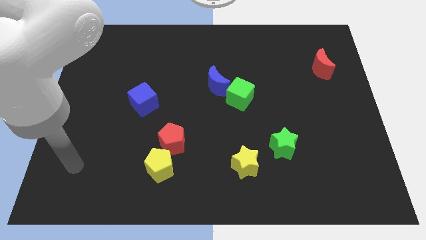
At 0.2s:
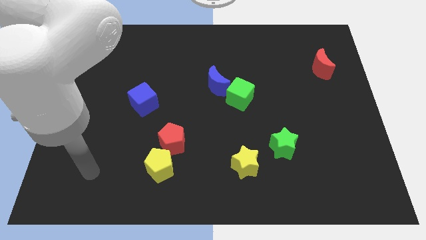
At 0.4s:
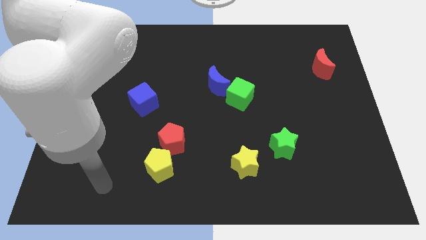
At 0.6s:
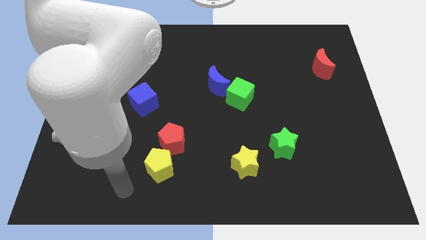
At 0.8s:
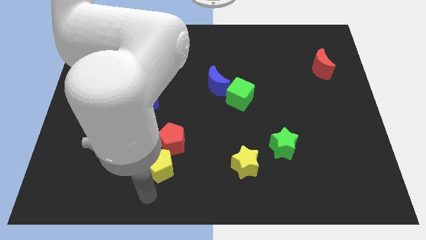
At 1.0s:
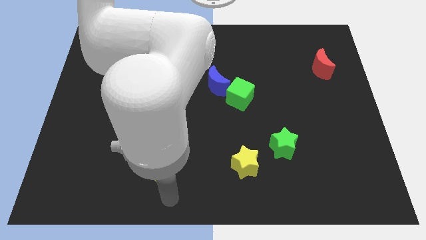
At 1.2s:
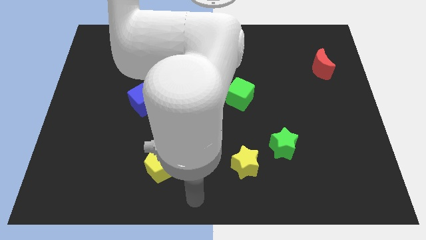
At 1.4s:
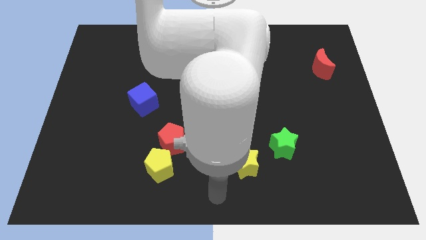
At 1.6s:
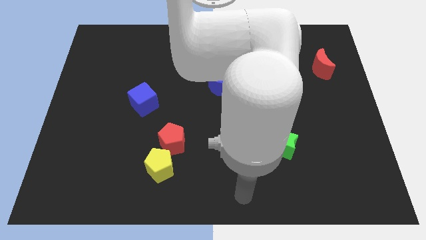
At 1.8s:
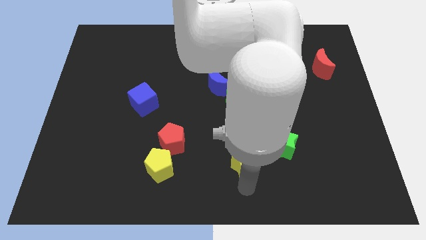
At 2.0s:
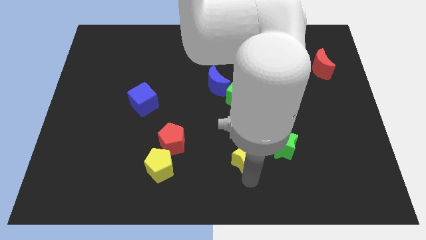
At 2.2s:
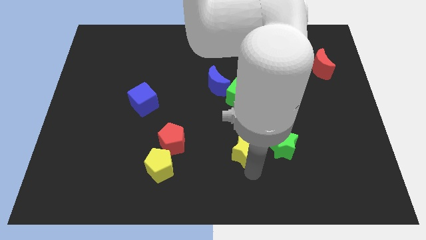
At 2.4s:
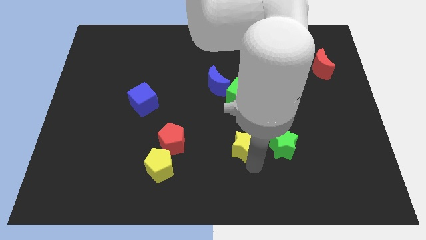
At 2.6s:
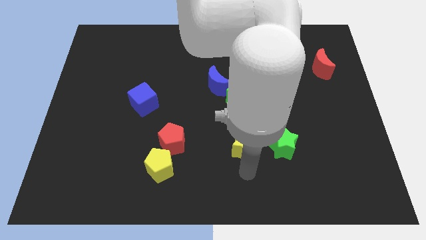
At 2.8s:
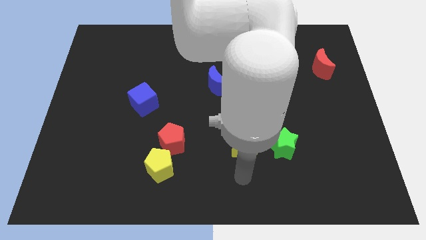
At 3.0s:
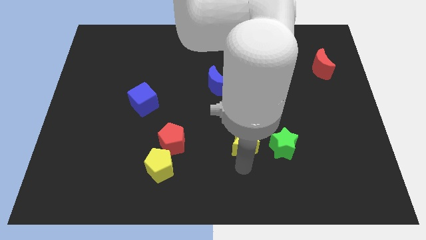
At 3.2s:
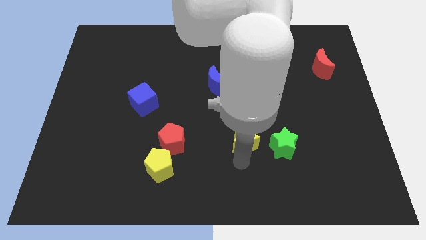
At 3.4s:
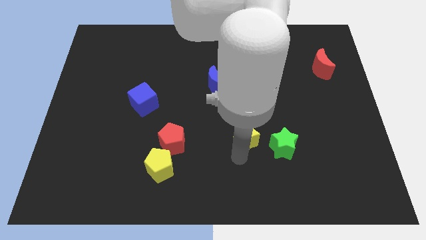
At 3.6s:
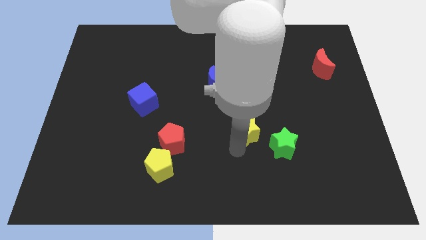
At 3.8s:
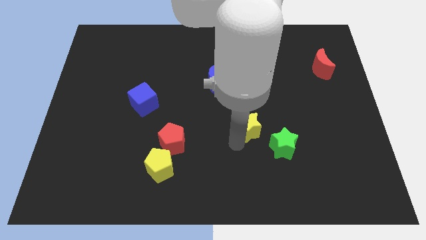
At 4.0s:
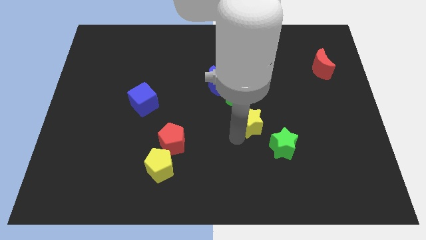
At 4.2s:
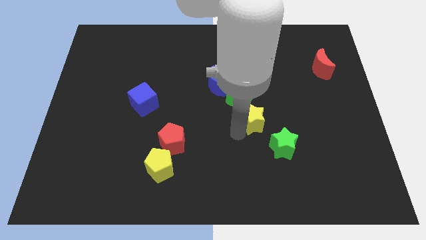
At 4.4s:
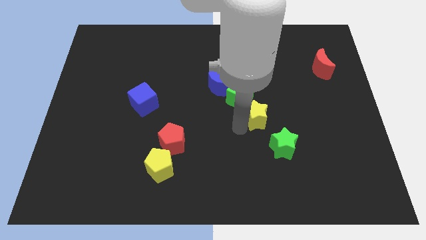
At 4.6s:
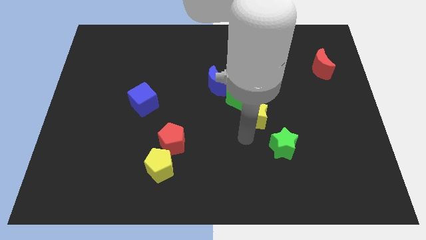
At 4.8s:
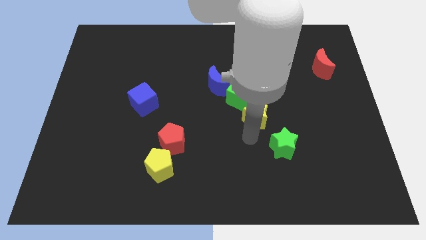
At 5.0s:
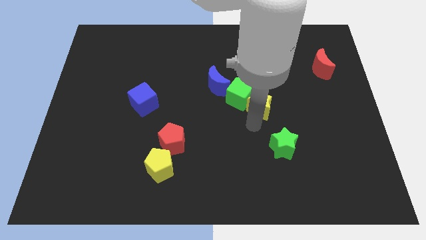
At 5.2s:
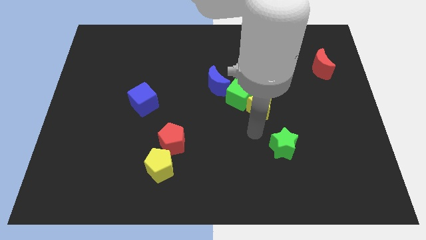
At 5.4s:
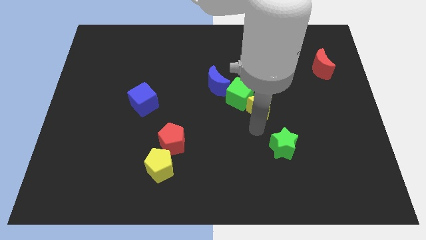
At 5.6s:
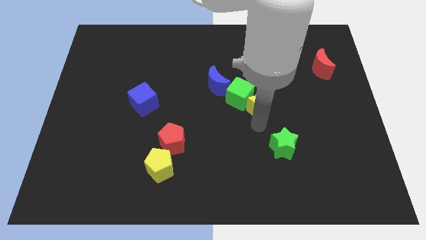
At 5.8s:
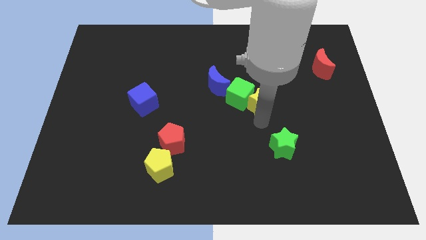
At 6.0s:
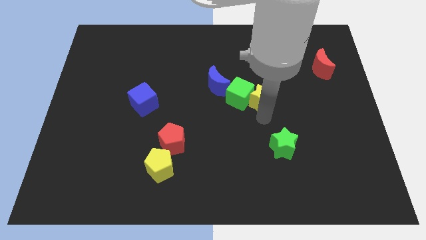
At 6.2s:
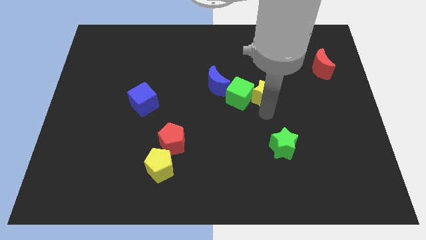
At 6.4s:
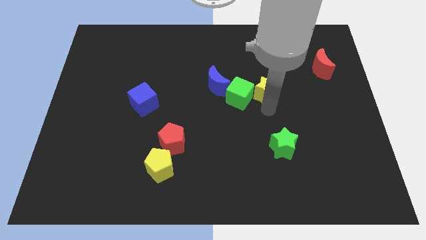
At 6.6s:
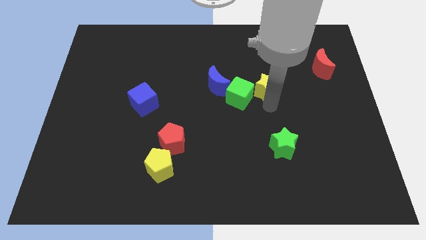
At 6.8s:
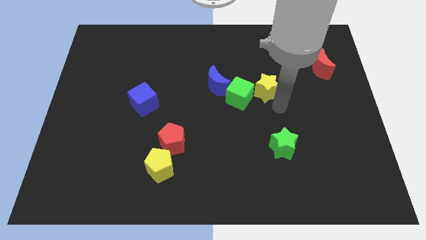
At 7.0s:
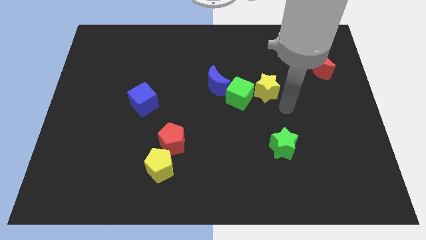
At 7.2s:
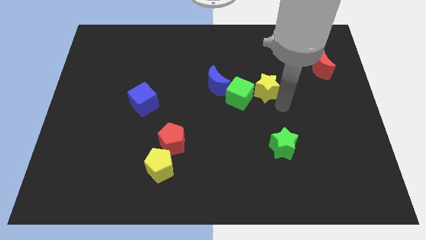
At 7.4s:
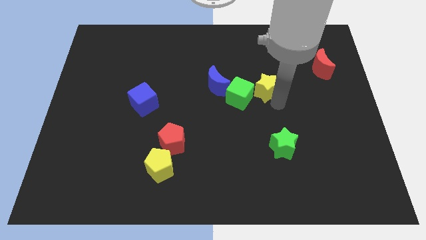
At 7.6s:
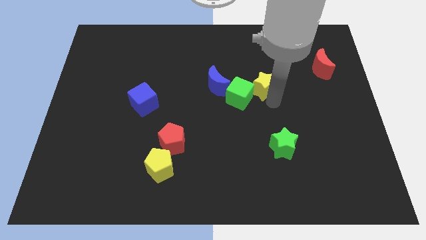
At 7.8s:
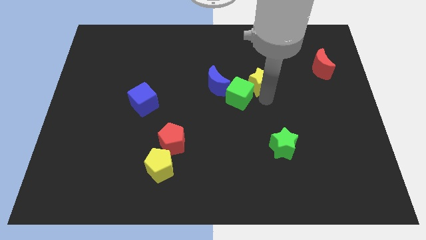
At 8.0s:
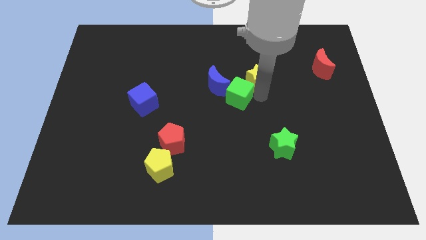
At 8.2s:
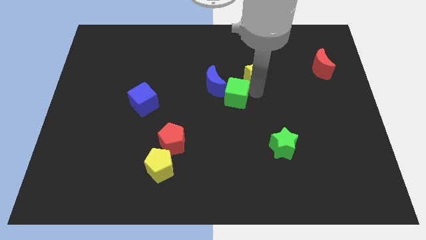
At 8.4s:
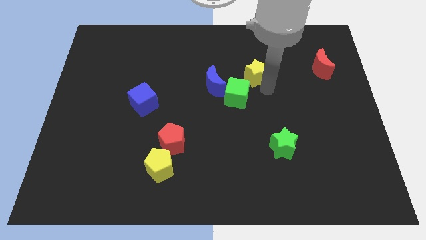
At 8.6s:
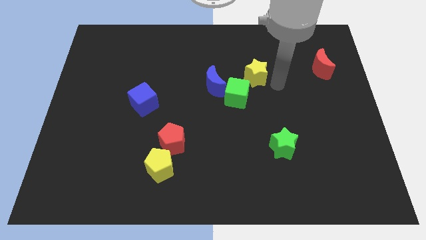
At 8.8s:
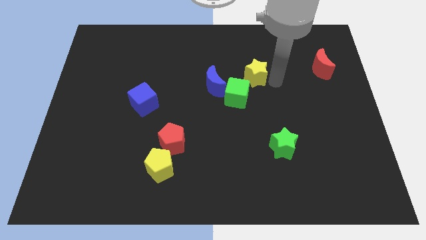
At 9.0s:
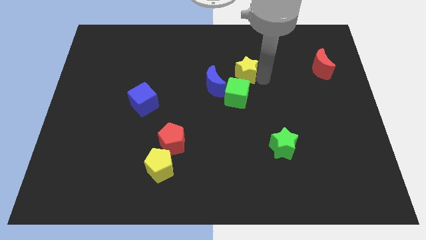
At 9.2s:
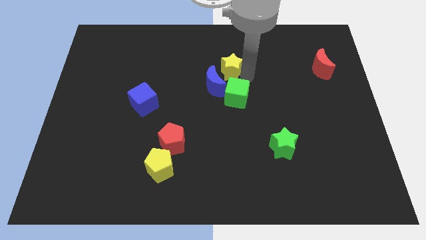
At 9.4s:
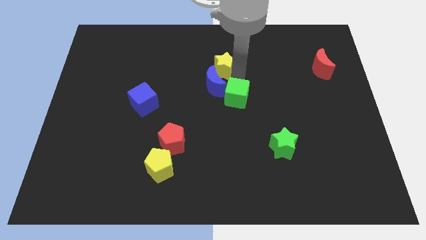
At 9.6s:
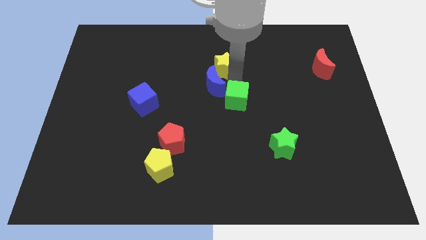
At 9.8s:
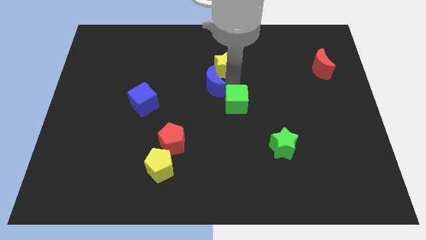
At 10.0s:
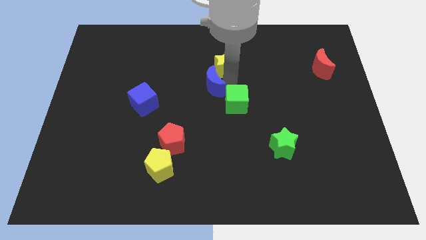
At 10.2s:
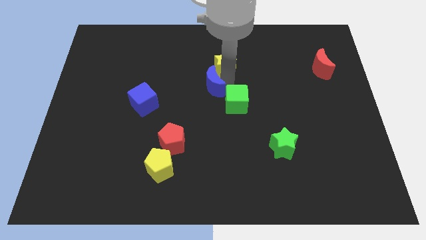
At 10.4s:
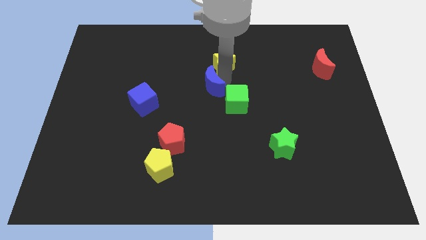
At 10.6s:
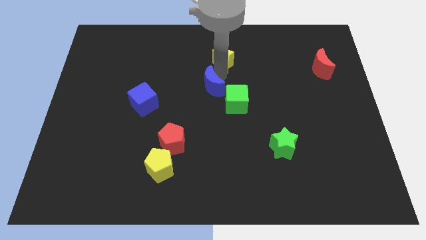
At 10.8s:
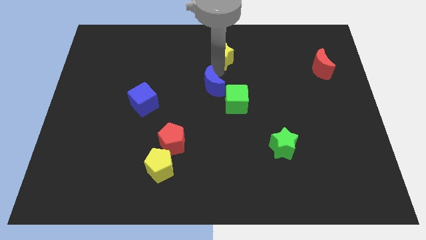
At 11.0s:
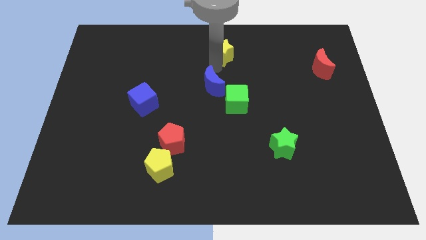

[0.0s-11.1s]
move the yellow star to the top

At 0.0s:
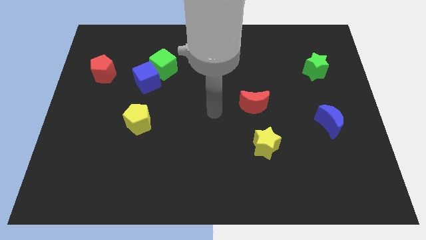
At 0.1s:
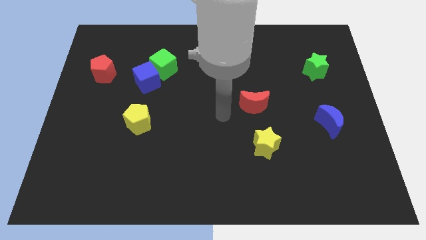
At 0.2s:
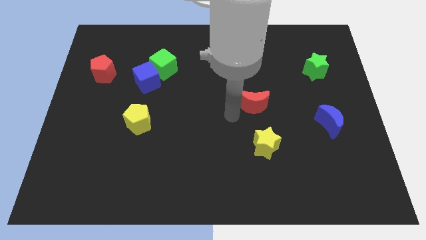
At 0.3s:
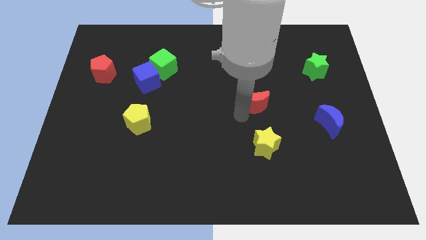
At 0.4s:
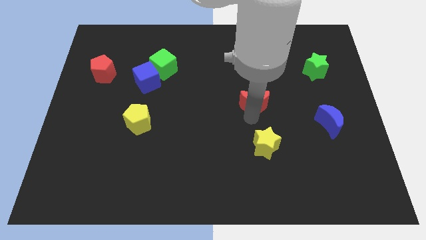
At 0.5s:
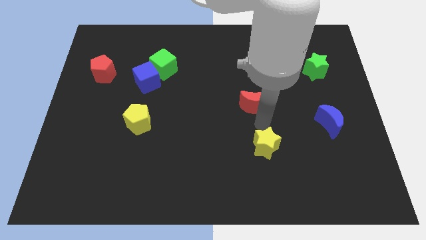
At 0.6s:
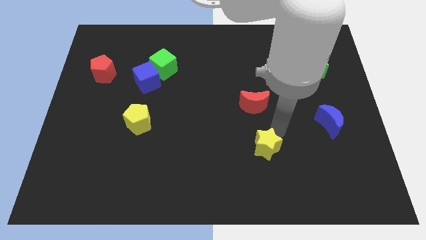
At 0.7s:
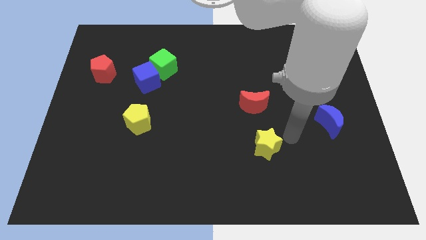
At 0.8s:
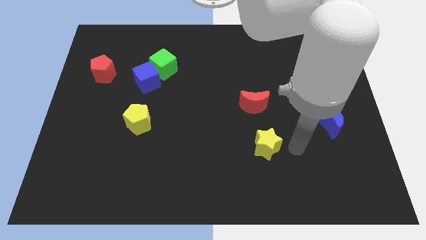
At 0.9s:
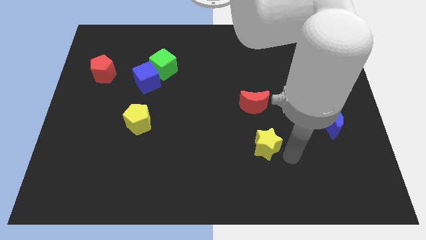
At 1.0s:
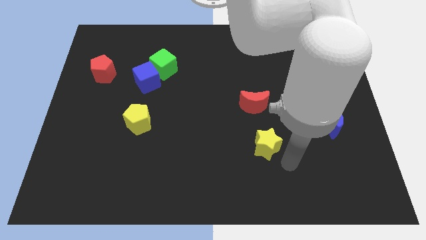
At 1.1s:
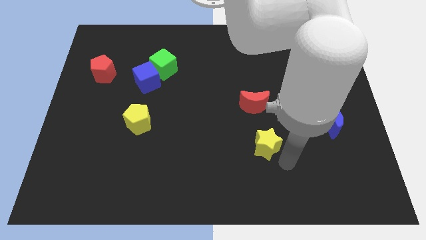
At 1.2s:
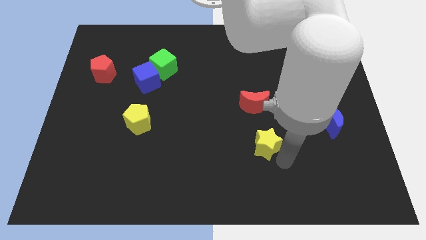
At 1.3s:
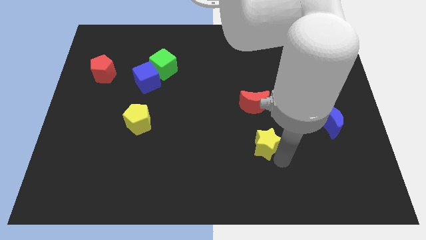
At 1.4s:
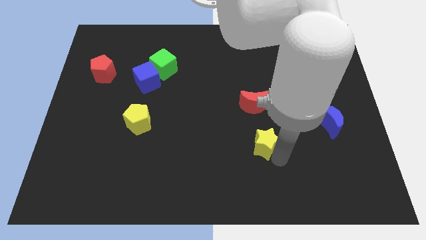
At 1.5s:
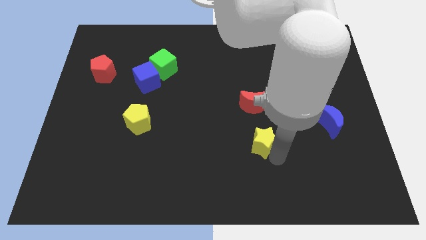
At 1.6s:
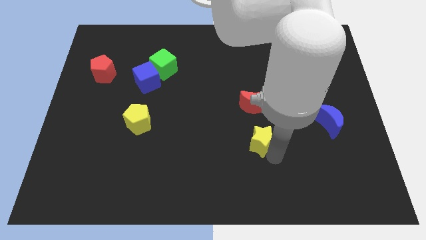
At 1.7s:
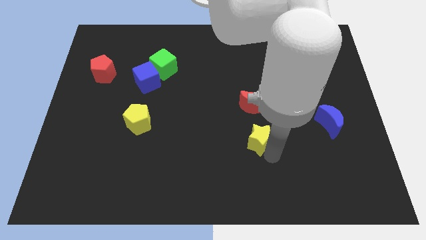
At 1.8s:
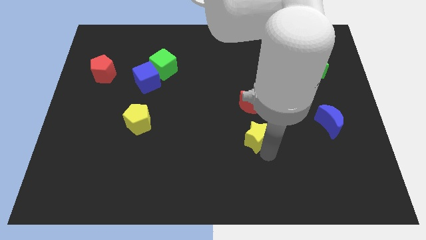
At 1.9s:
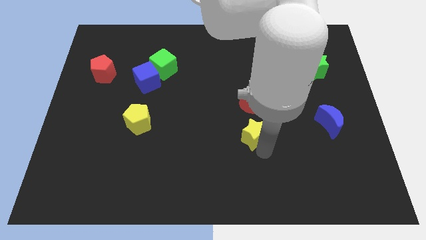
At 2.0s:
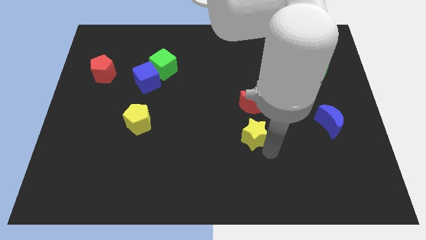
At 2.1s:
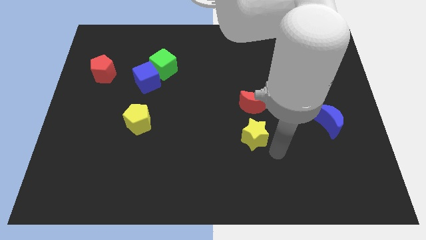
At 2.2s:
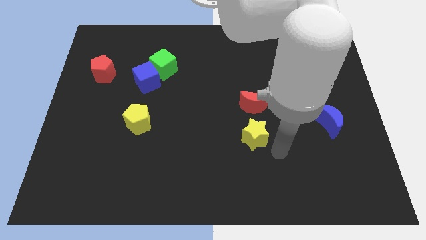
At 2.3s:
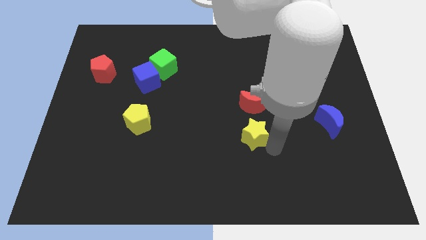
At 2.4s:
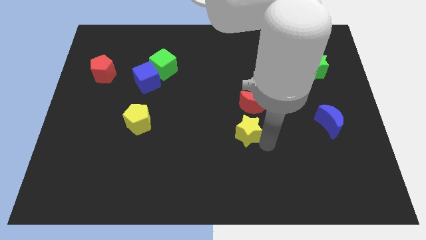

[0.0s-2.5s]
move the yellow star to the middle
